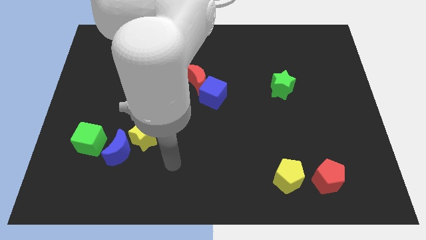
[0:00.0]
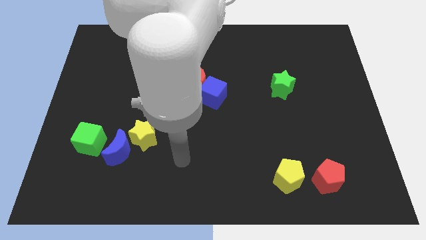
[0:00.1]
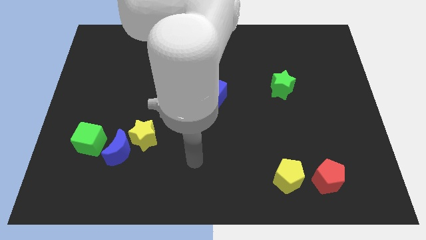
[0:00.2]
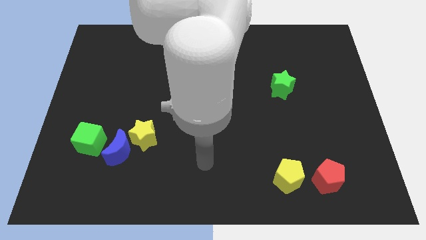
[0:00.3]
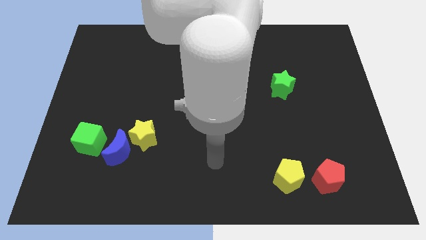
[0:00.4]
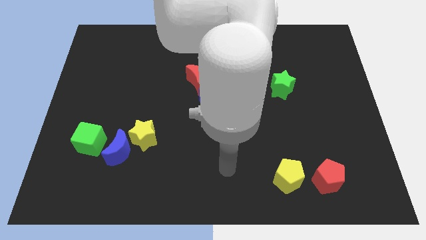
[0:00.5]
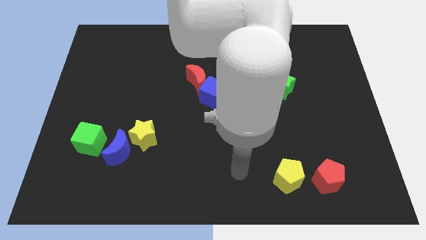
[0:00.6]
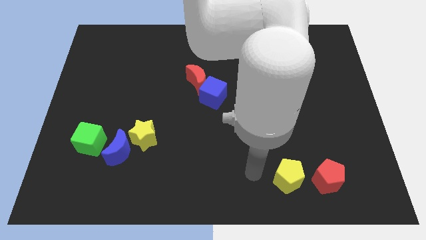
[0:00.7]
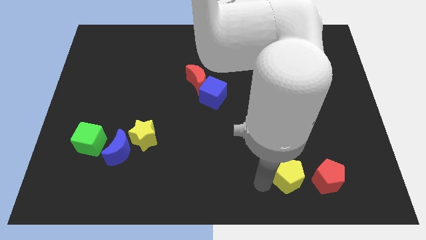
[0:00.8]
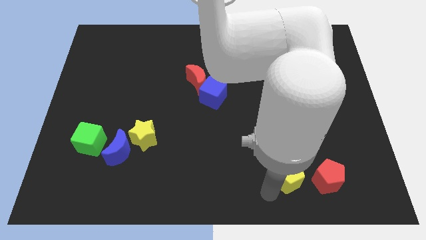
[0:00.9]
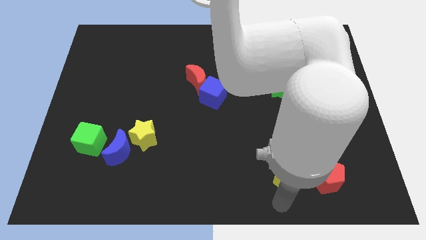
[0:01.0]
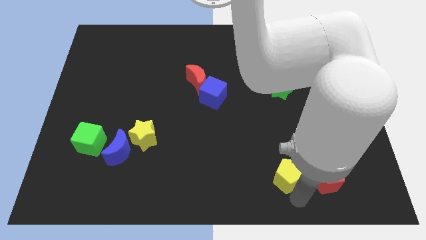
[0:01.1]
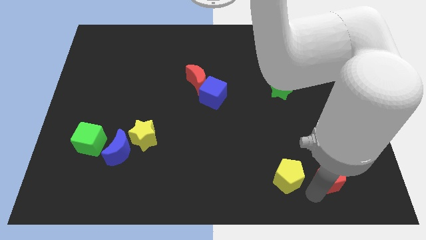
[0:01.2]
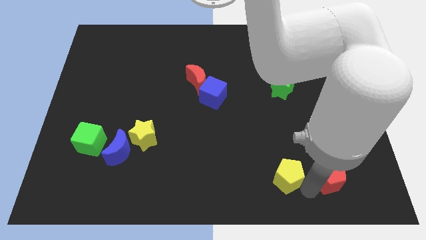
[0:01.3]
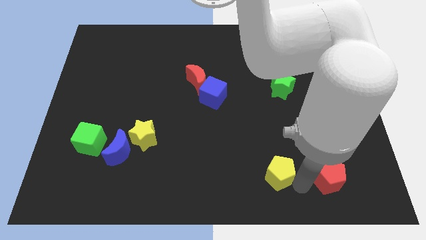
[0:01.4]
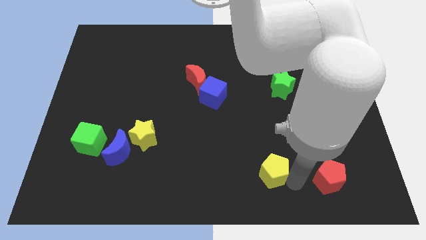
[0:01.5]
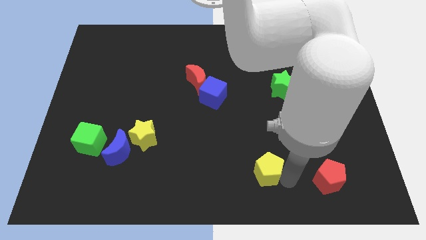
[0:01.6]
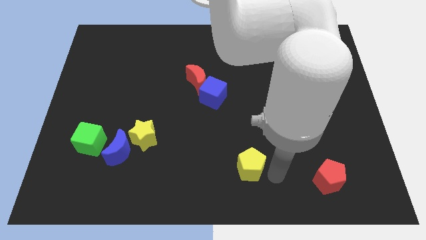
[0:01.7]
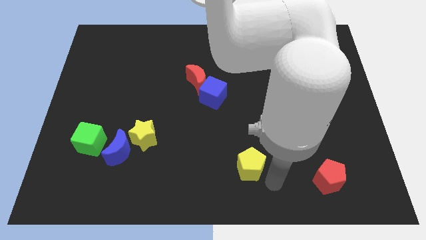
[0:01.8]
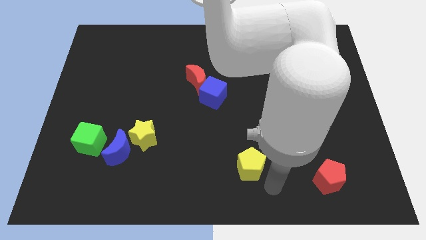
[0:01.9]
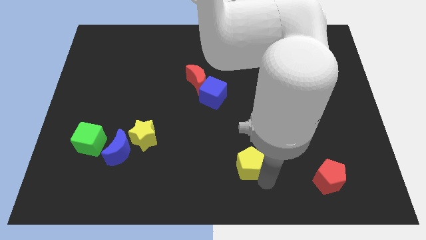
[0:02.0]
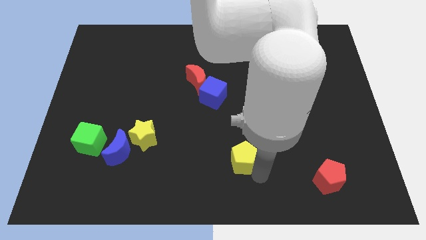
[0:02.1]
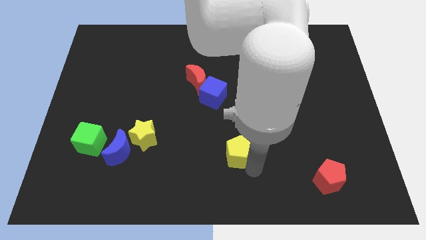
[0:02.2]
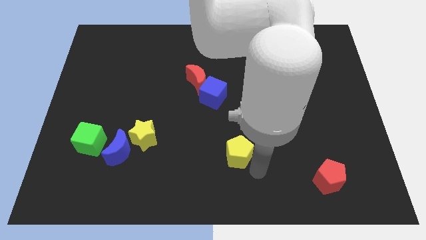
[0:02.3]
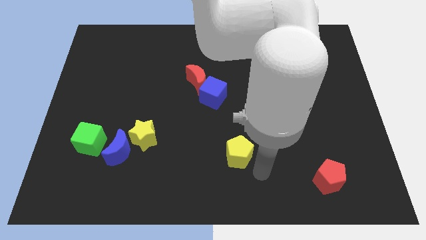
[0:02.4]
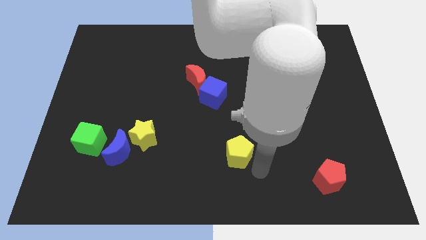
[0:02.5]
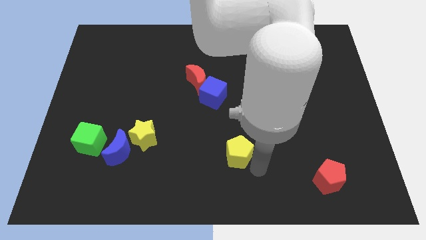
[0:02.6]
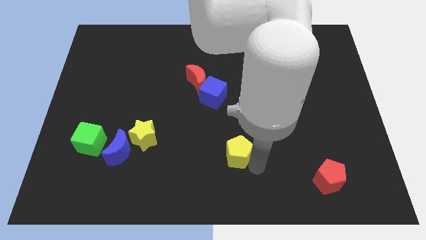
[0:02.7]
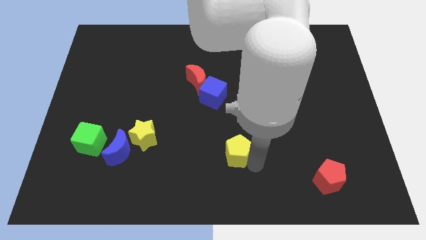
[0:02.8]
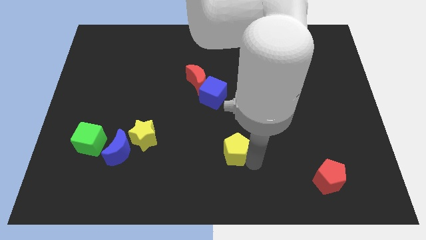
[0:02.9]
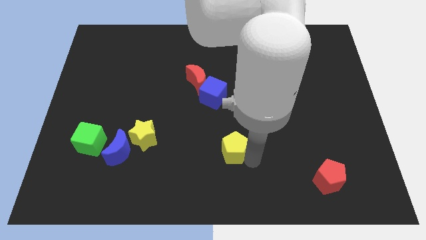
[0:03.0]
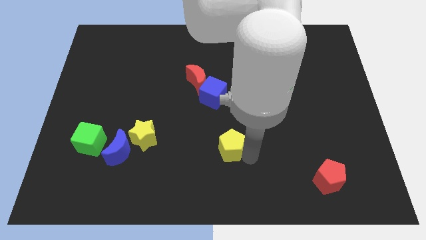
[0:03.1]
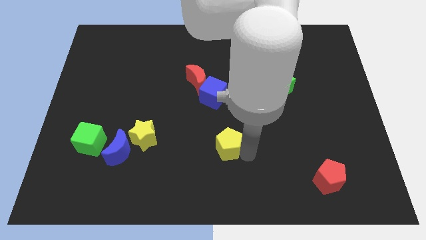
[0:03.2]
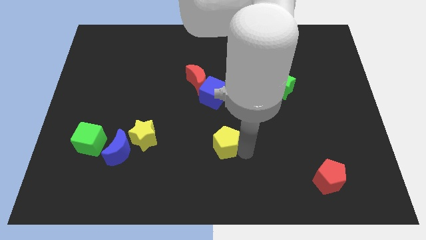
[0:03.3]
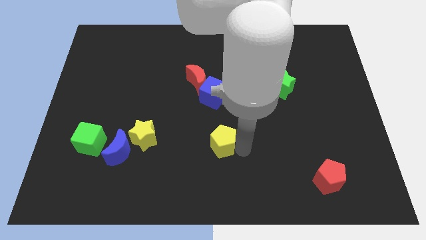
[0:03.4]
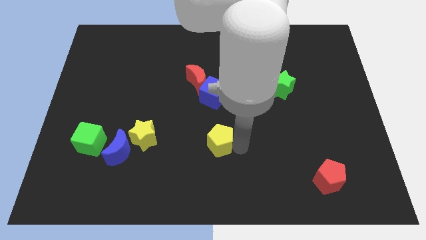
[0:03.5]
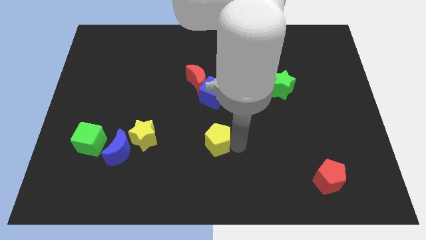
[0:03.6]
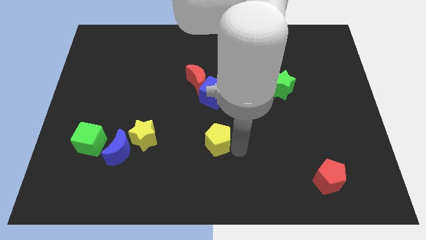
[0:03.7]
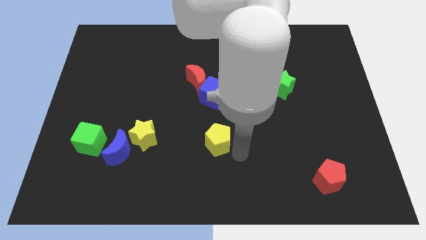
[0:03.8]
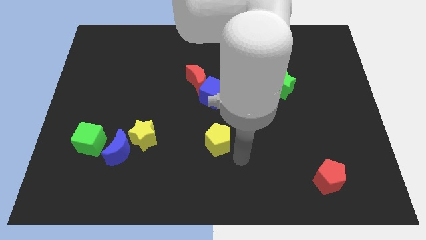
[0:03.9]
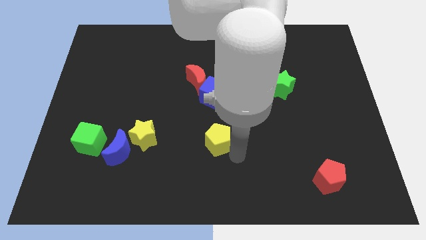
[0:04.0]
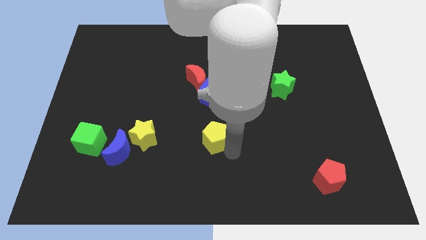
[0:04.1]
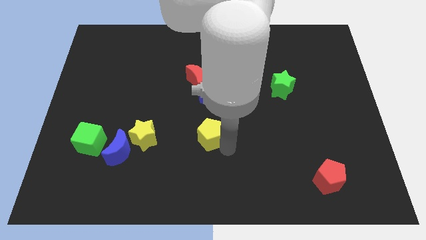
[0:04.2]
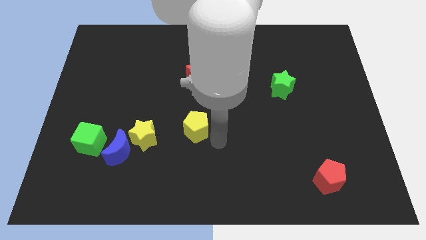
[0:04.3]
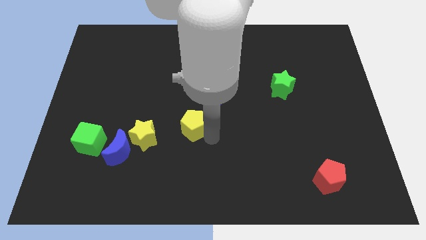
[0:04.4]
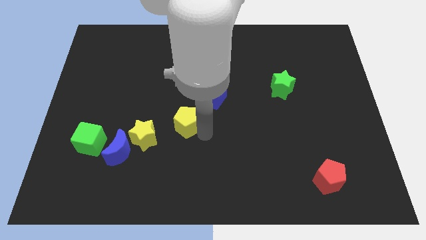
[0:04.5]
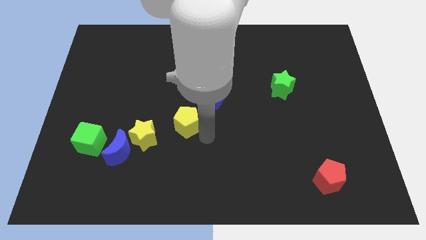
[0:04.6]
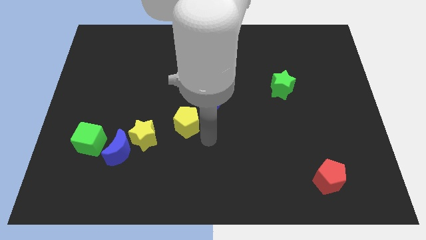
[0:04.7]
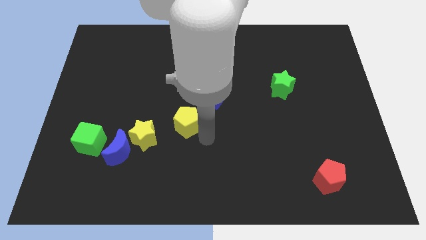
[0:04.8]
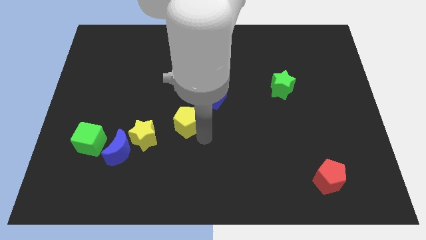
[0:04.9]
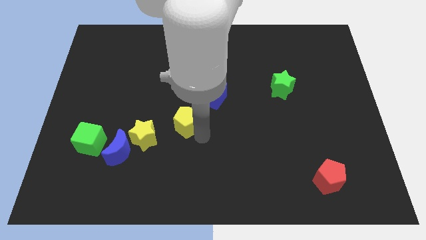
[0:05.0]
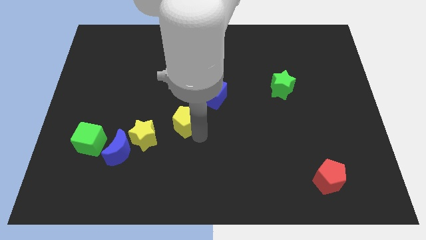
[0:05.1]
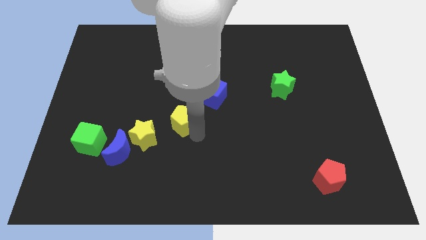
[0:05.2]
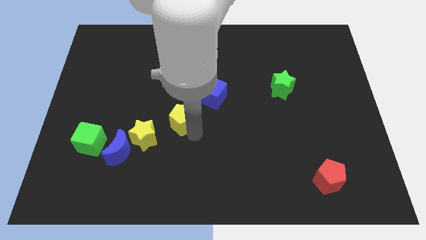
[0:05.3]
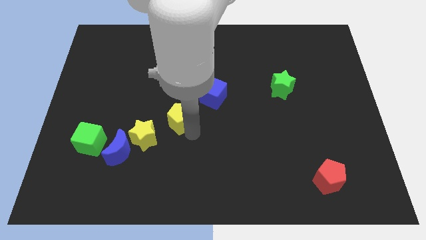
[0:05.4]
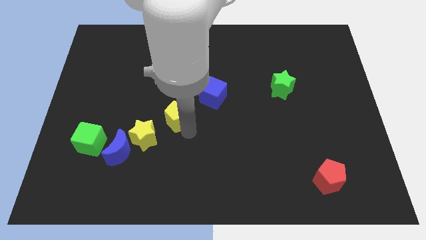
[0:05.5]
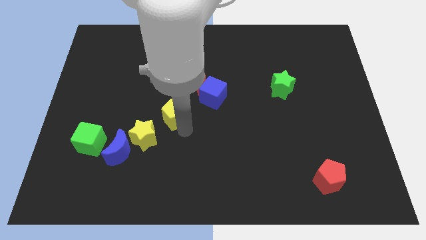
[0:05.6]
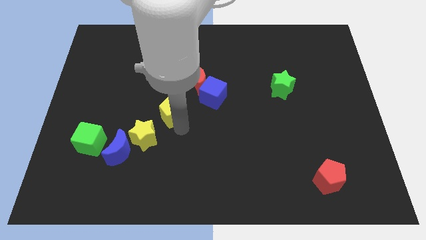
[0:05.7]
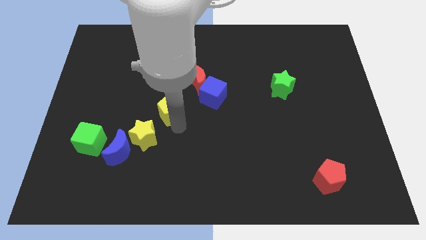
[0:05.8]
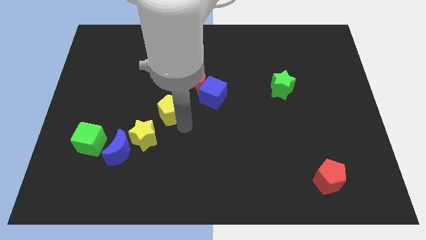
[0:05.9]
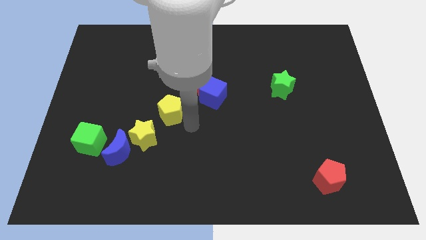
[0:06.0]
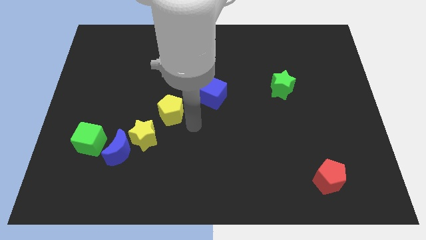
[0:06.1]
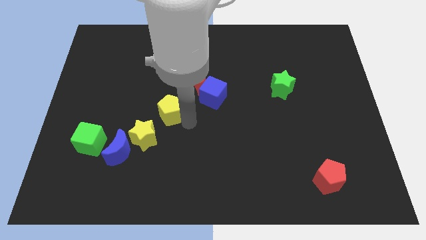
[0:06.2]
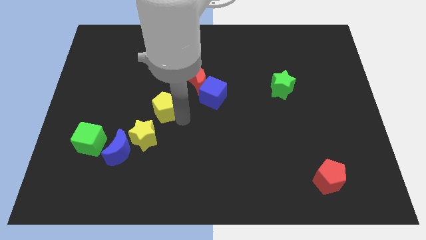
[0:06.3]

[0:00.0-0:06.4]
move the yellow pentagon to the top of the yellow star

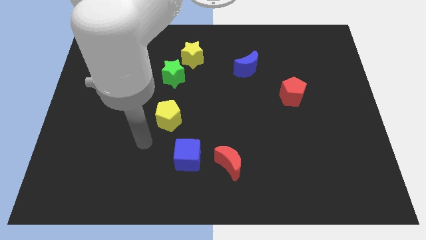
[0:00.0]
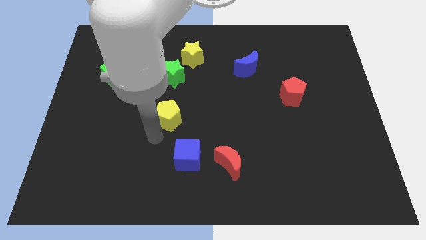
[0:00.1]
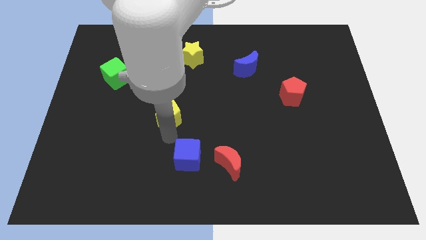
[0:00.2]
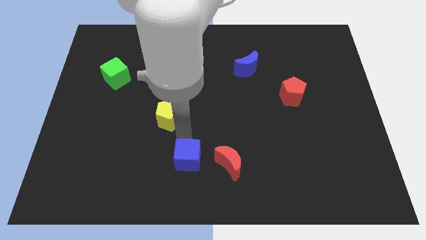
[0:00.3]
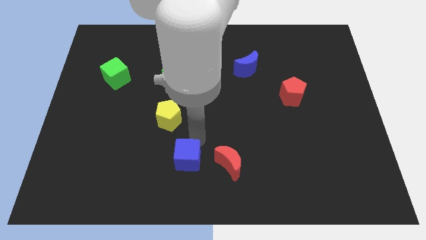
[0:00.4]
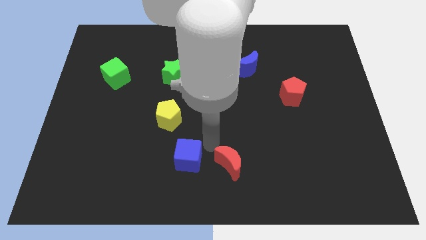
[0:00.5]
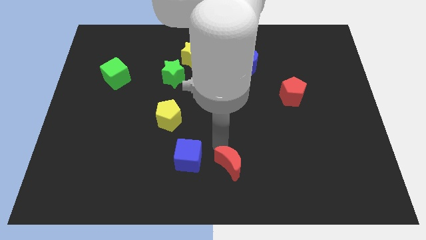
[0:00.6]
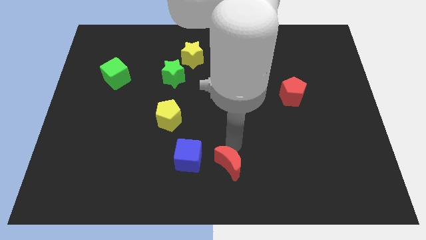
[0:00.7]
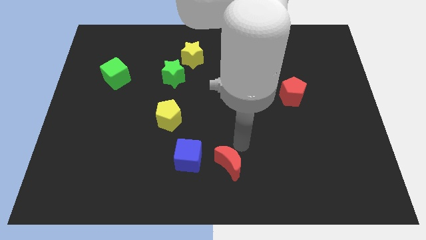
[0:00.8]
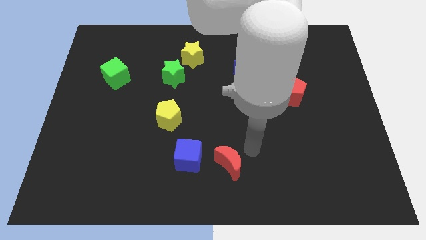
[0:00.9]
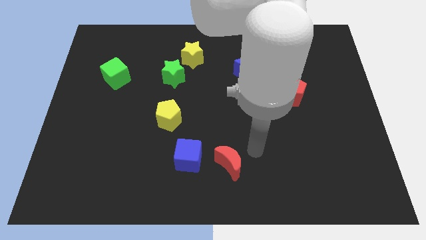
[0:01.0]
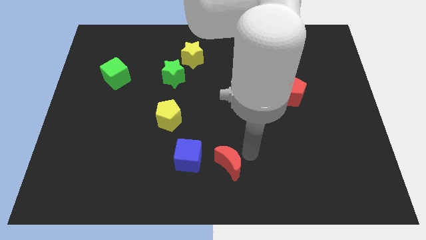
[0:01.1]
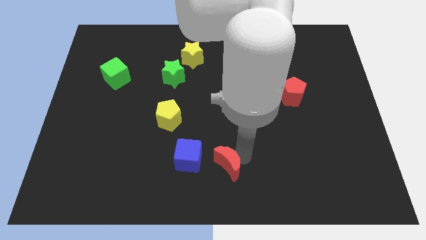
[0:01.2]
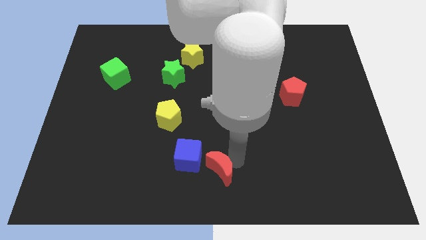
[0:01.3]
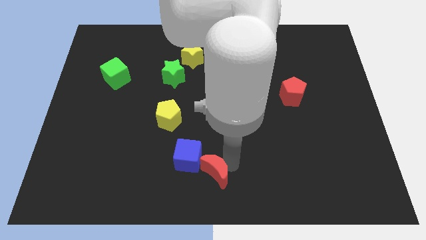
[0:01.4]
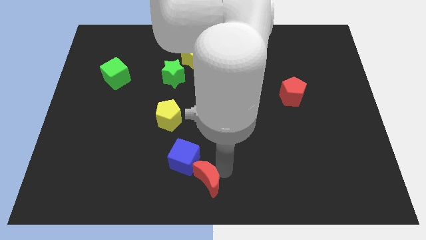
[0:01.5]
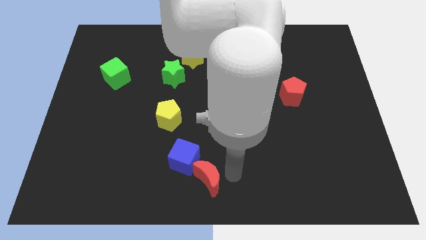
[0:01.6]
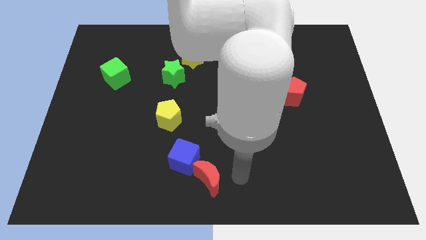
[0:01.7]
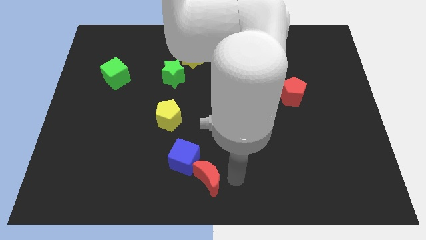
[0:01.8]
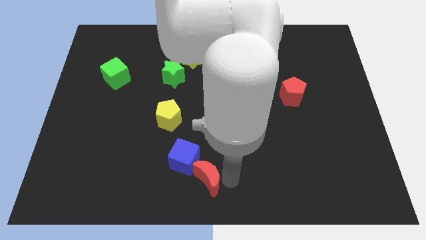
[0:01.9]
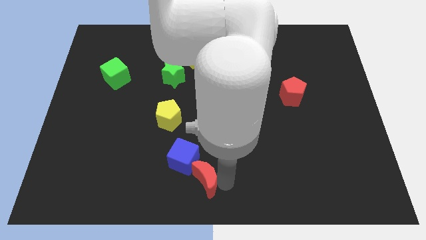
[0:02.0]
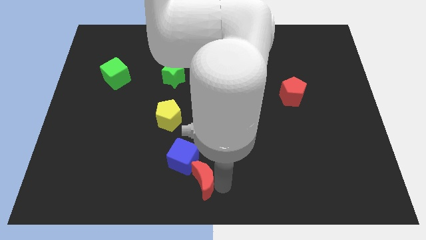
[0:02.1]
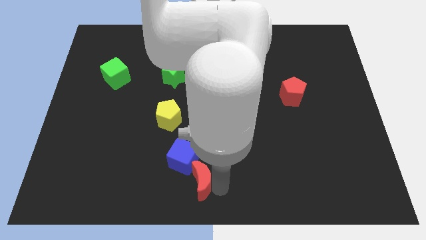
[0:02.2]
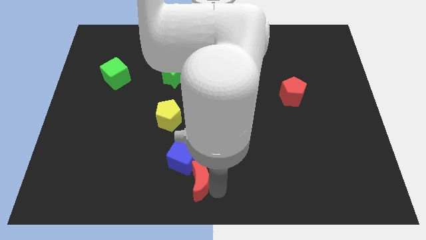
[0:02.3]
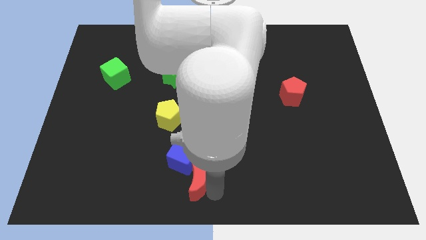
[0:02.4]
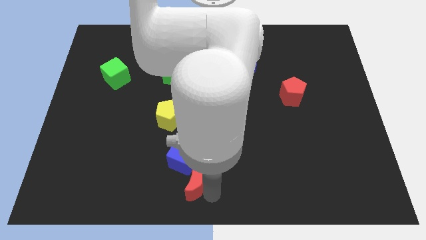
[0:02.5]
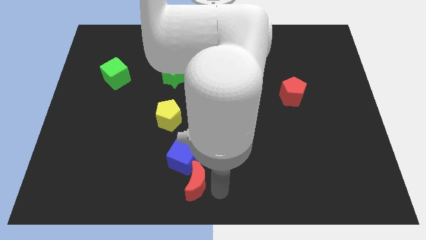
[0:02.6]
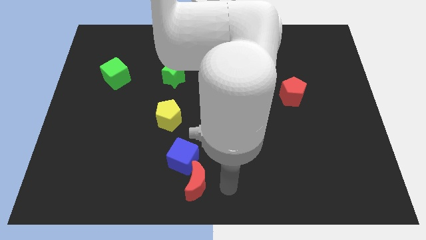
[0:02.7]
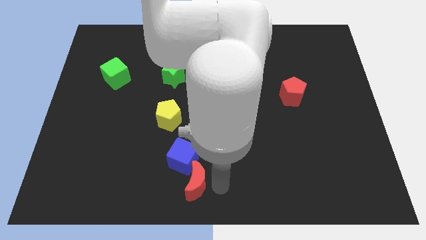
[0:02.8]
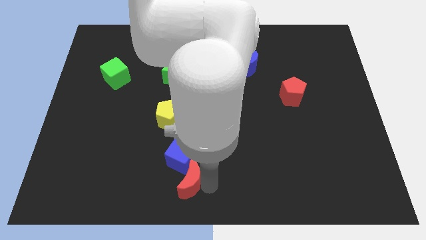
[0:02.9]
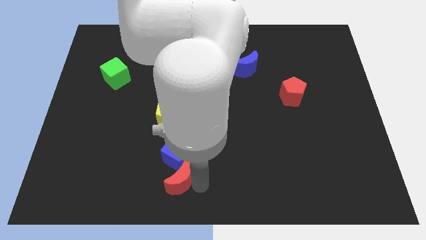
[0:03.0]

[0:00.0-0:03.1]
push the red moon to the bottom left side of the blue cube
